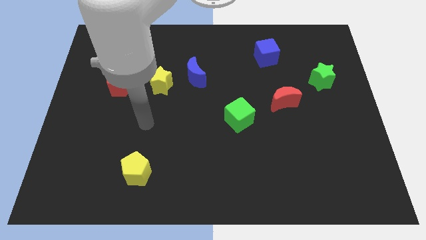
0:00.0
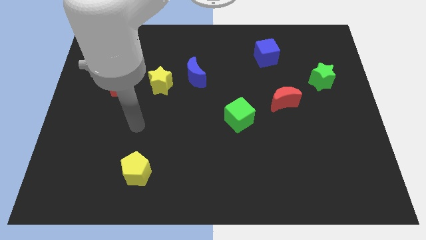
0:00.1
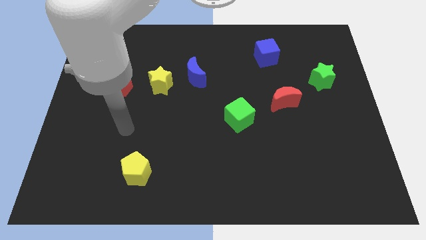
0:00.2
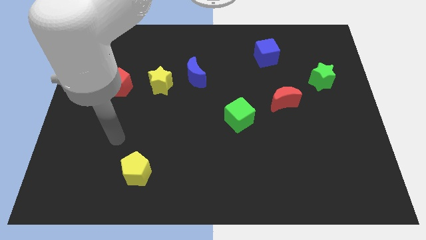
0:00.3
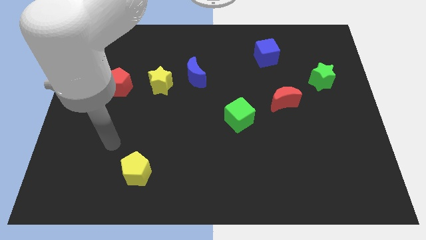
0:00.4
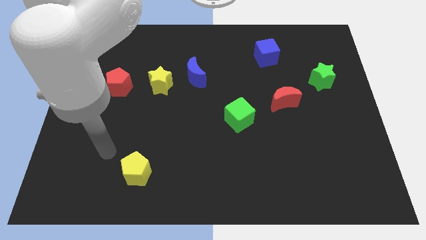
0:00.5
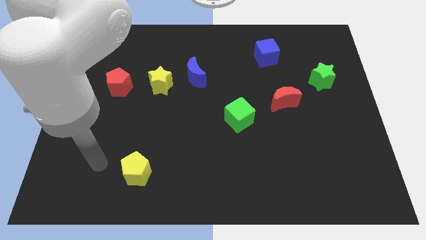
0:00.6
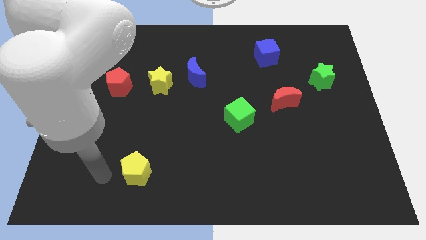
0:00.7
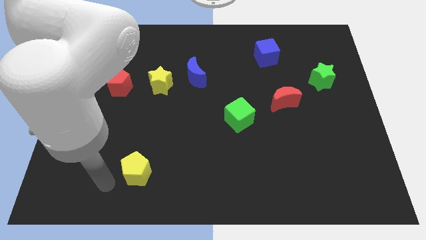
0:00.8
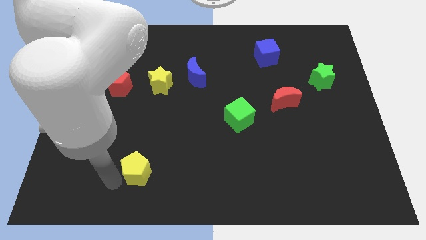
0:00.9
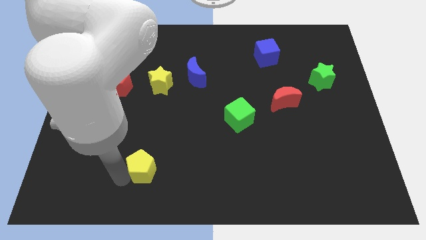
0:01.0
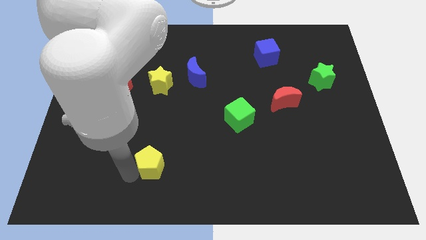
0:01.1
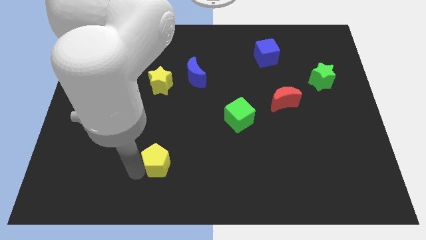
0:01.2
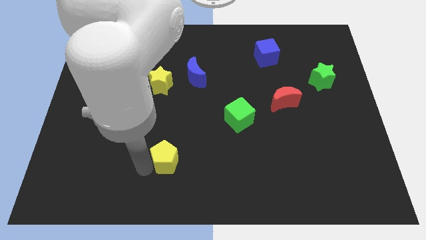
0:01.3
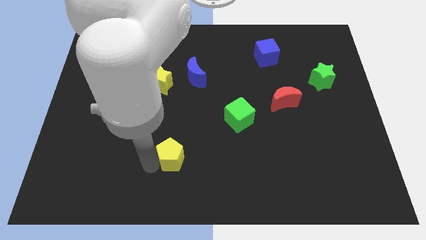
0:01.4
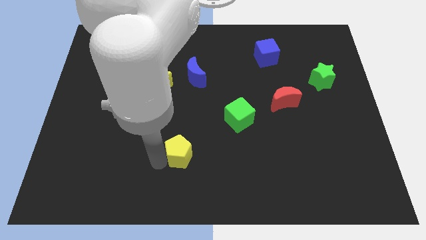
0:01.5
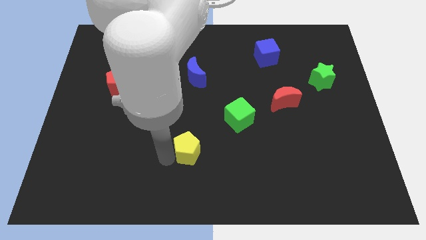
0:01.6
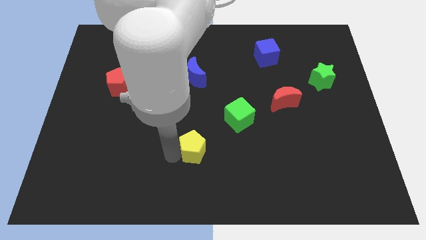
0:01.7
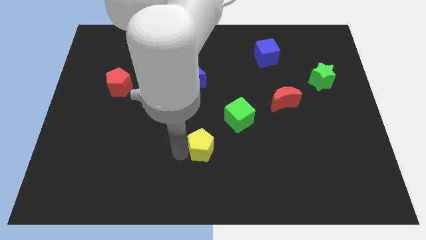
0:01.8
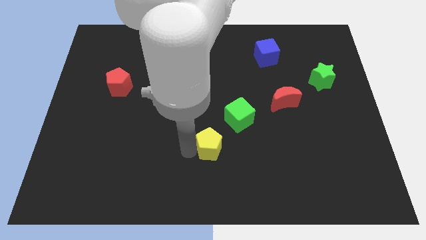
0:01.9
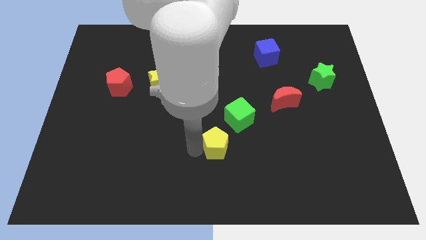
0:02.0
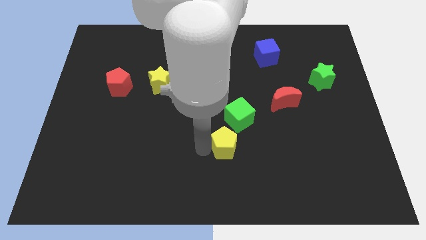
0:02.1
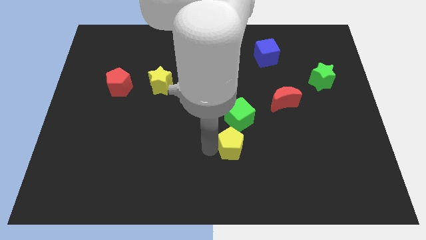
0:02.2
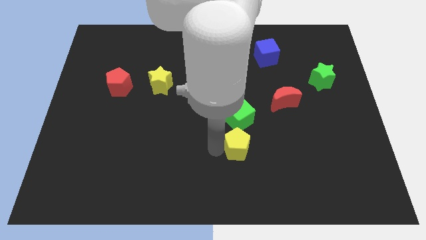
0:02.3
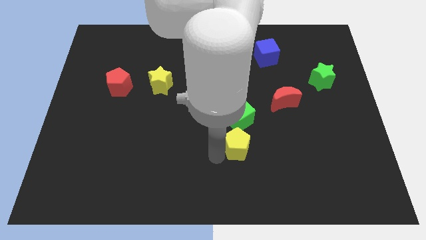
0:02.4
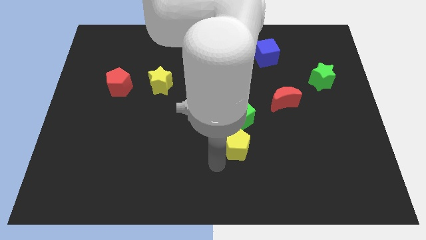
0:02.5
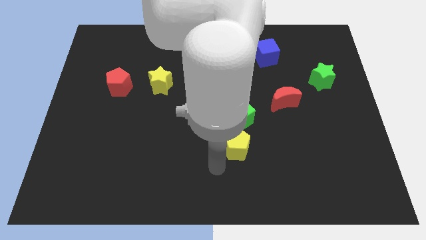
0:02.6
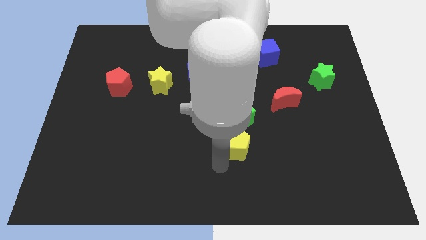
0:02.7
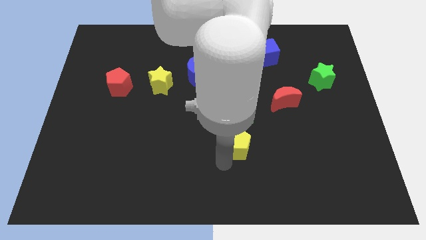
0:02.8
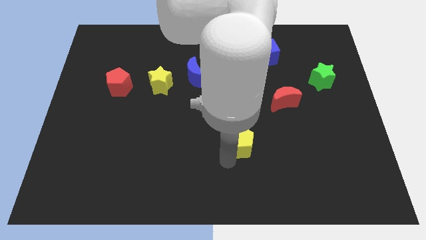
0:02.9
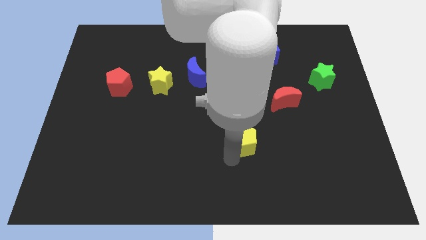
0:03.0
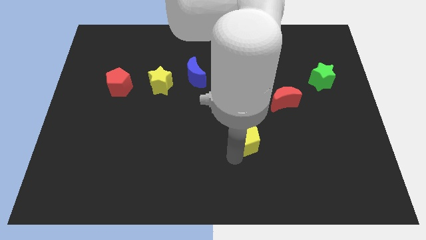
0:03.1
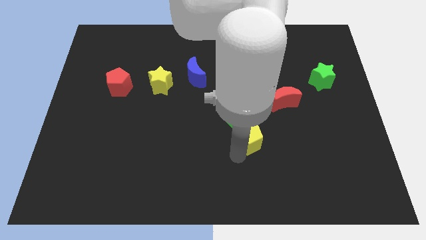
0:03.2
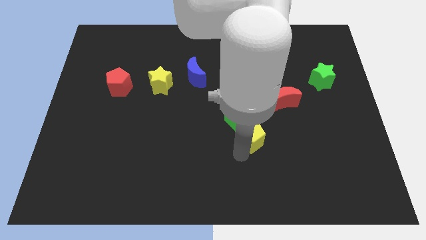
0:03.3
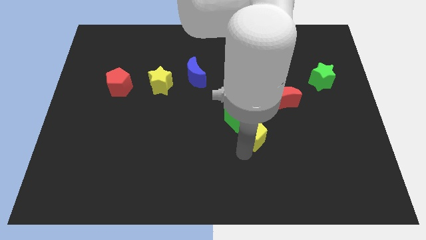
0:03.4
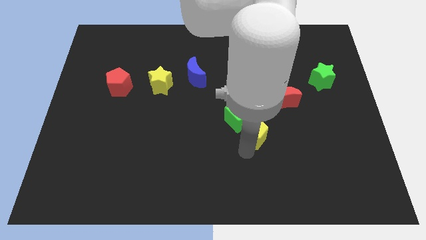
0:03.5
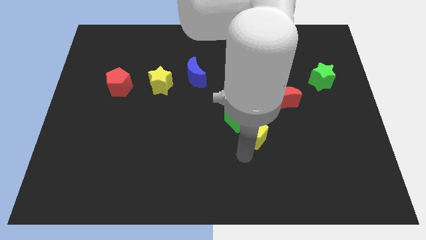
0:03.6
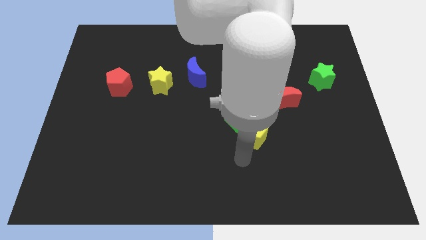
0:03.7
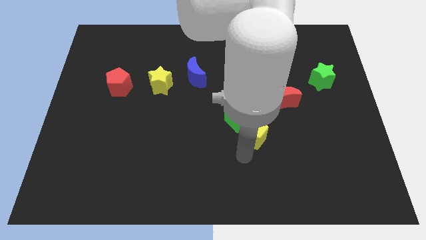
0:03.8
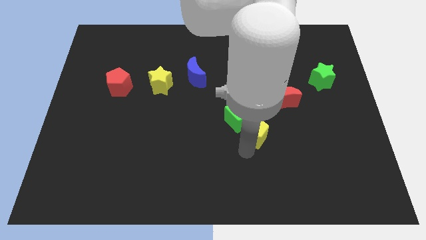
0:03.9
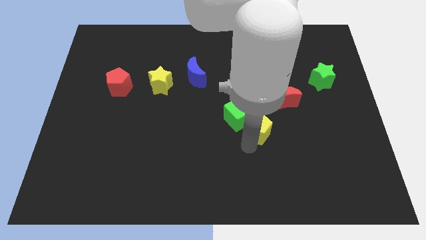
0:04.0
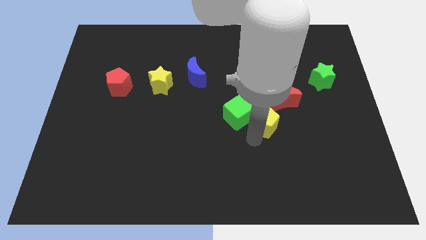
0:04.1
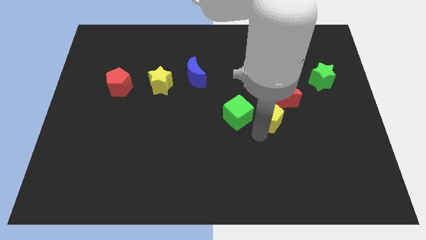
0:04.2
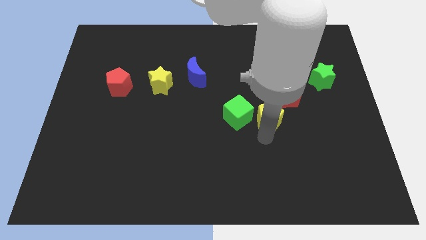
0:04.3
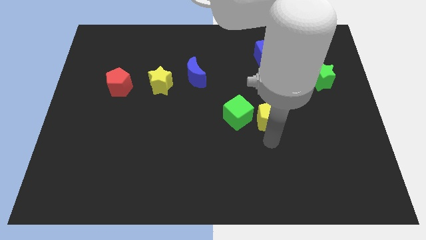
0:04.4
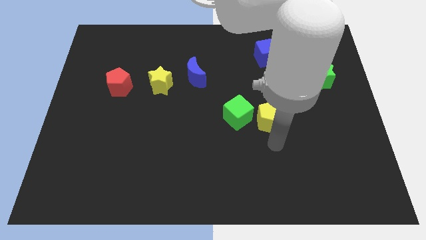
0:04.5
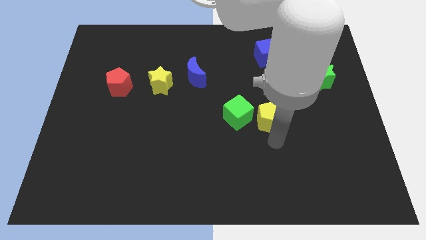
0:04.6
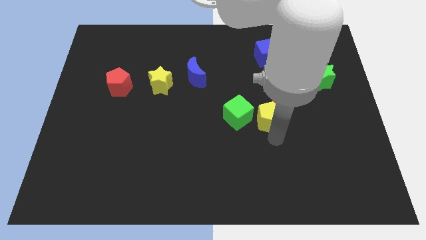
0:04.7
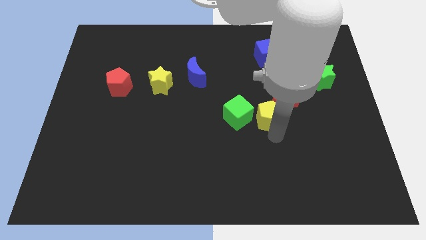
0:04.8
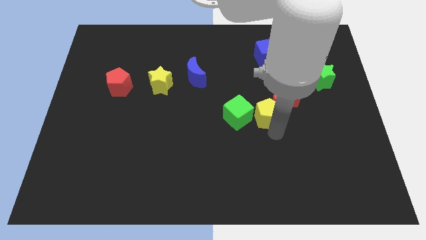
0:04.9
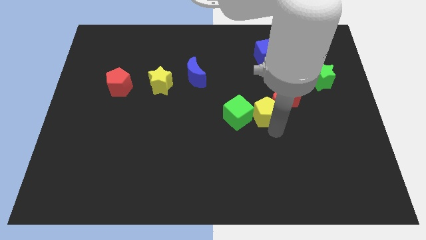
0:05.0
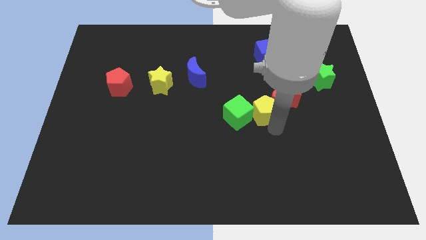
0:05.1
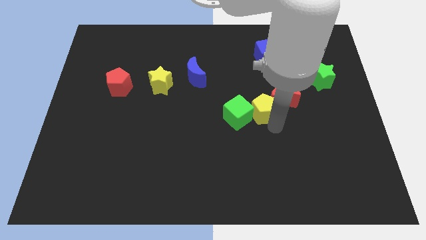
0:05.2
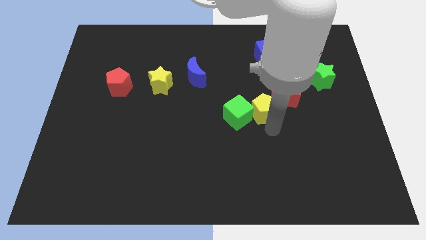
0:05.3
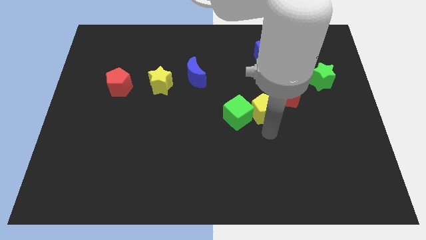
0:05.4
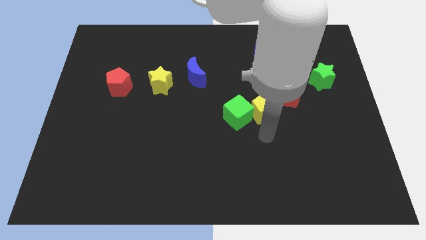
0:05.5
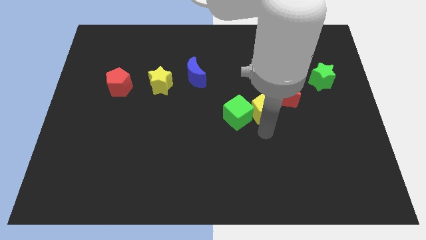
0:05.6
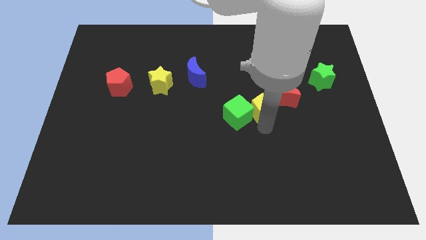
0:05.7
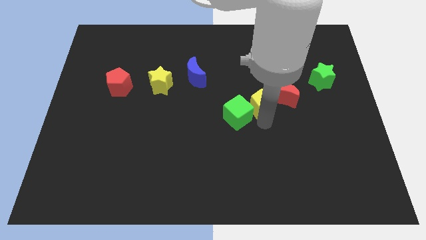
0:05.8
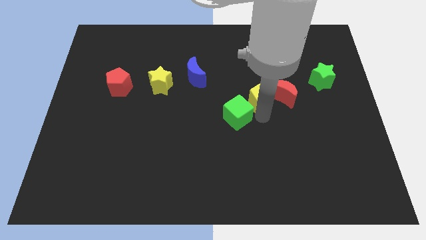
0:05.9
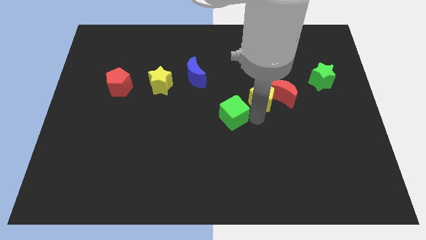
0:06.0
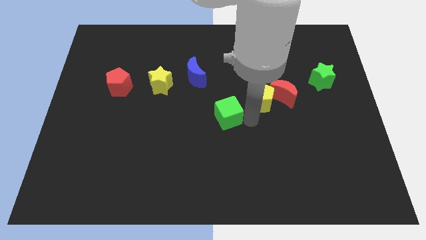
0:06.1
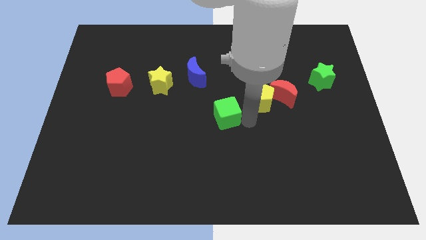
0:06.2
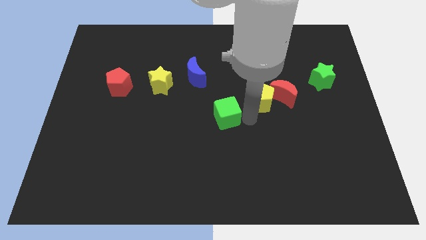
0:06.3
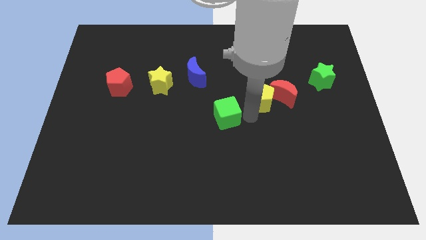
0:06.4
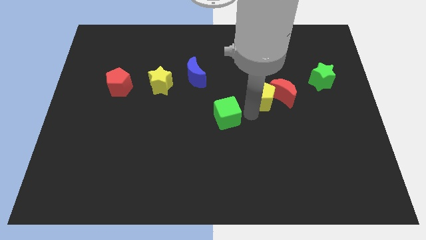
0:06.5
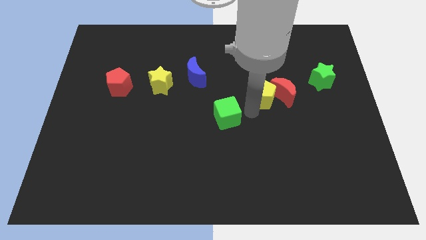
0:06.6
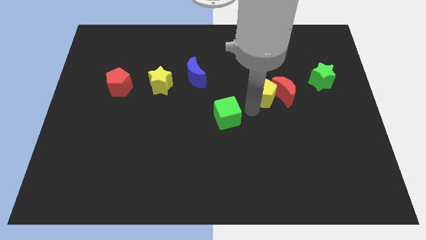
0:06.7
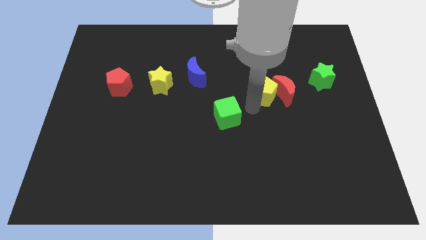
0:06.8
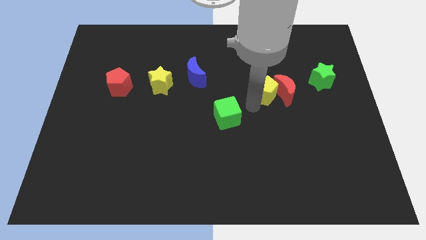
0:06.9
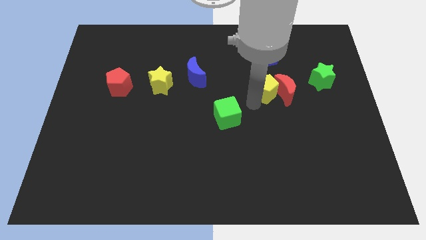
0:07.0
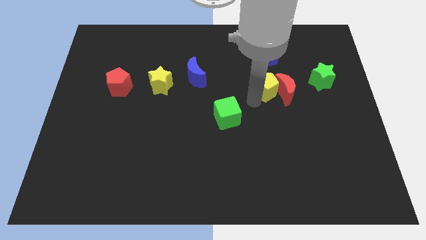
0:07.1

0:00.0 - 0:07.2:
move the yellow pentagon just left of the green star
